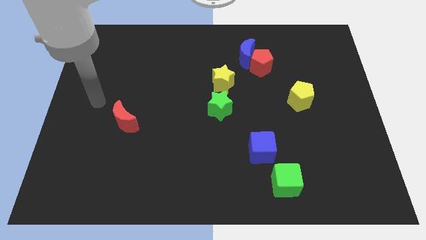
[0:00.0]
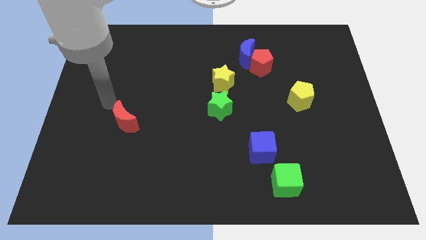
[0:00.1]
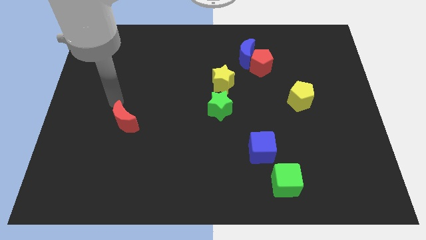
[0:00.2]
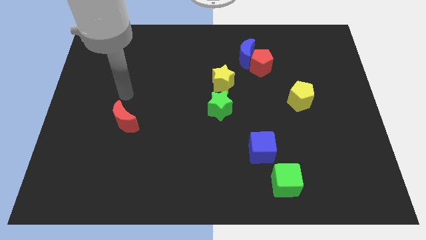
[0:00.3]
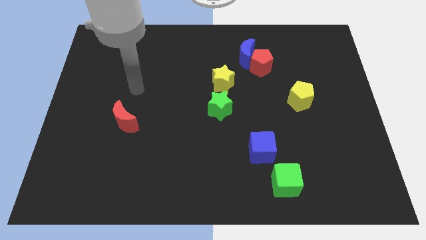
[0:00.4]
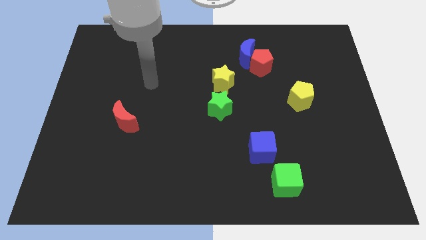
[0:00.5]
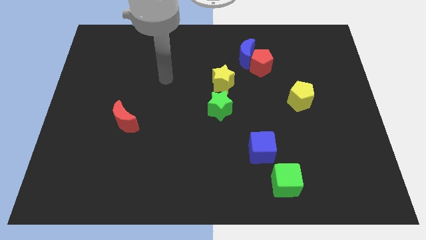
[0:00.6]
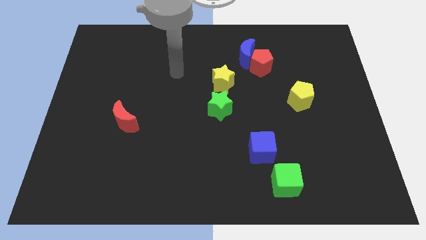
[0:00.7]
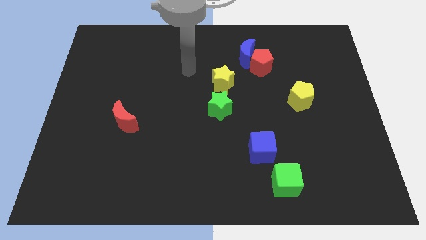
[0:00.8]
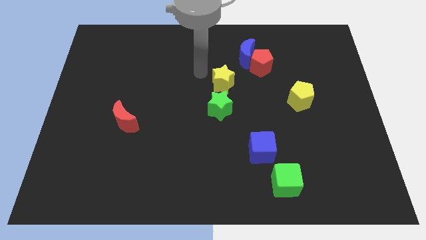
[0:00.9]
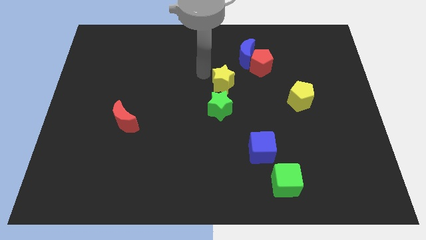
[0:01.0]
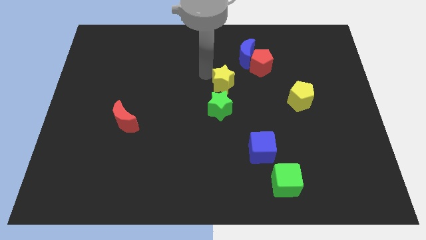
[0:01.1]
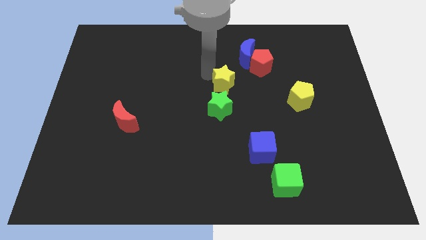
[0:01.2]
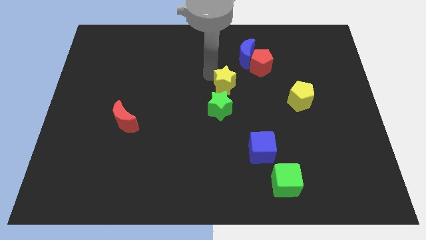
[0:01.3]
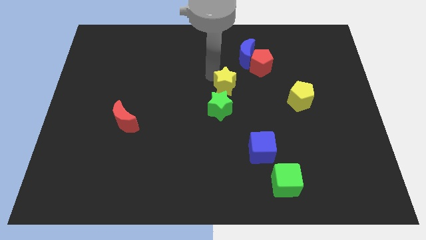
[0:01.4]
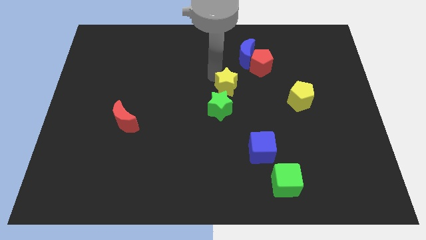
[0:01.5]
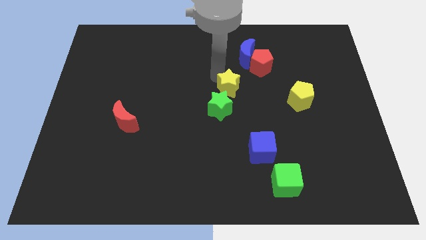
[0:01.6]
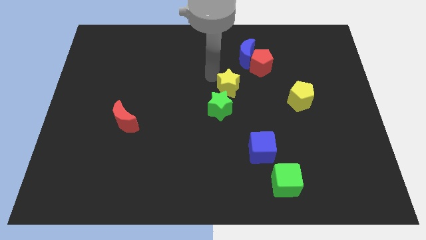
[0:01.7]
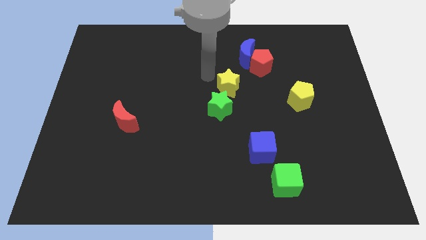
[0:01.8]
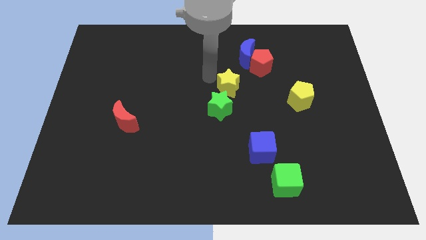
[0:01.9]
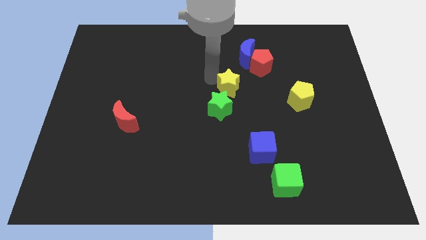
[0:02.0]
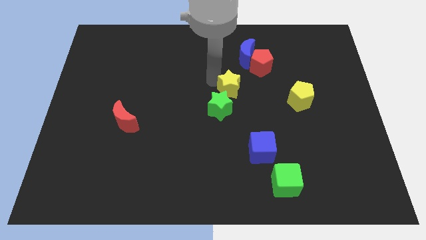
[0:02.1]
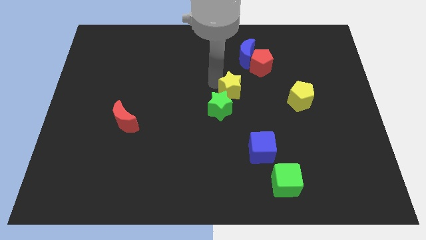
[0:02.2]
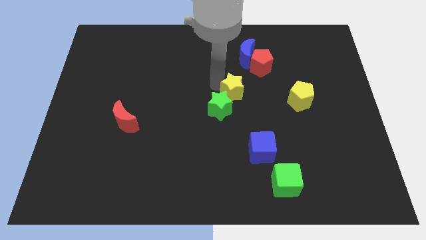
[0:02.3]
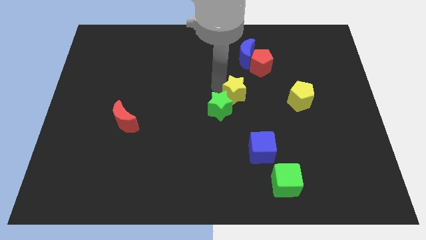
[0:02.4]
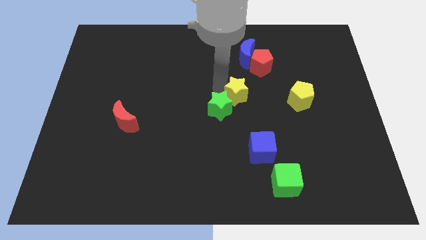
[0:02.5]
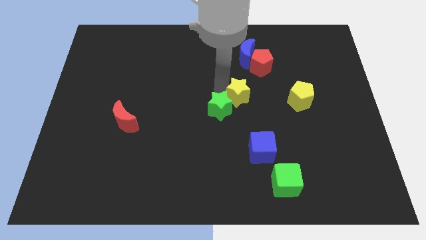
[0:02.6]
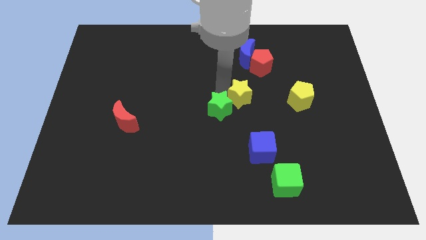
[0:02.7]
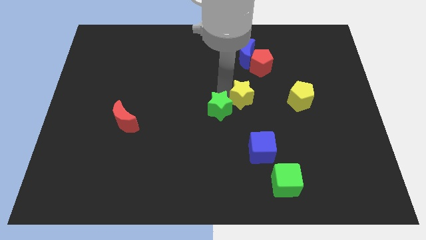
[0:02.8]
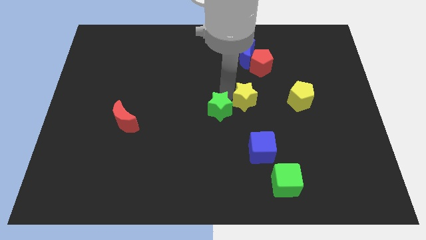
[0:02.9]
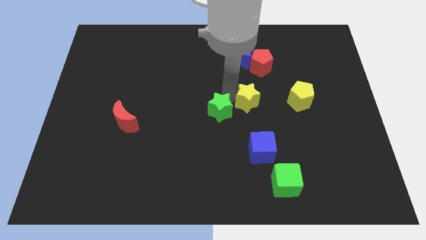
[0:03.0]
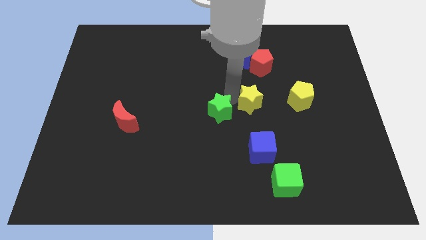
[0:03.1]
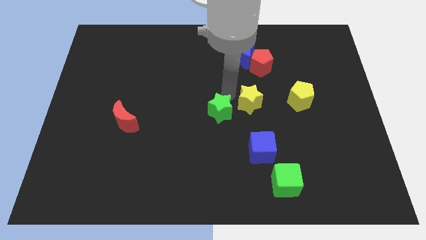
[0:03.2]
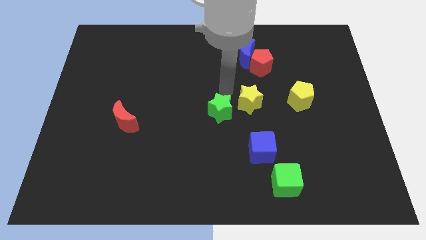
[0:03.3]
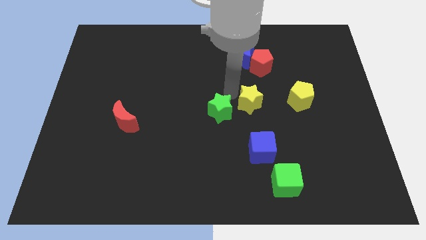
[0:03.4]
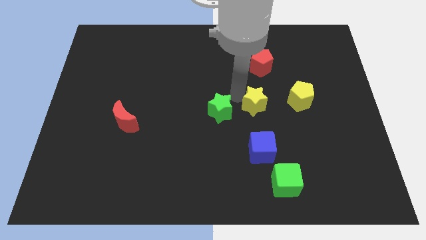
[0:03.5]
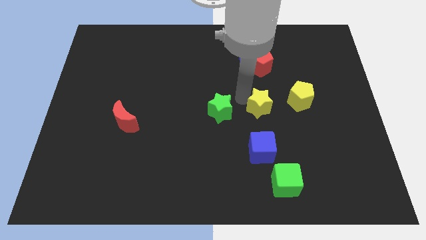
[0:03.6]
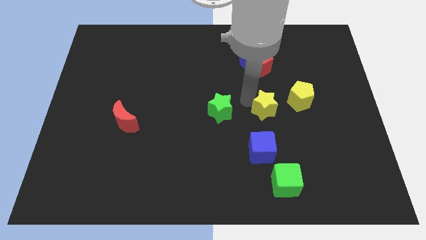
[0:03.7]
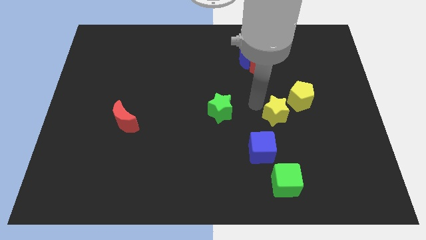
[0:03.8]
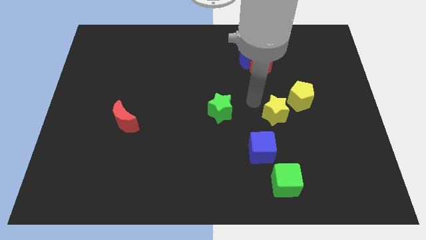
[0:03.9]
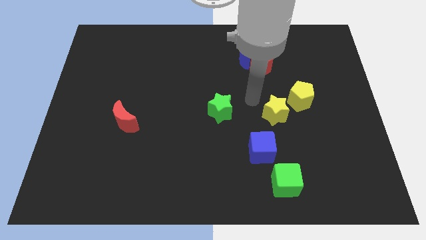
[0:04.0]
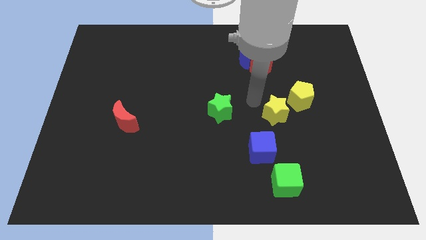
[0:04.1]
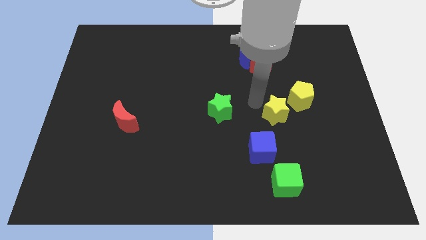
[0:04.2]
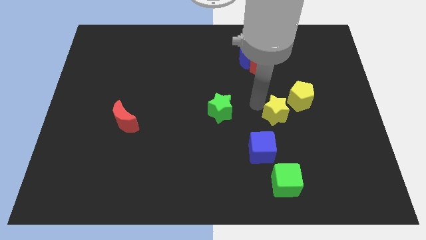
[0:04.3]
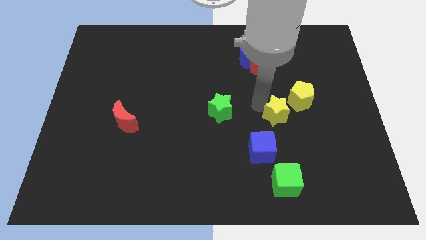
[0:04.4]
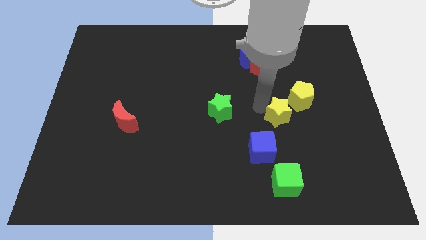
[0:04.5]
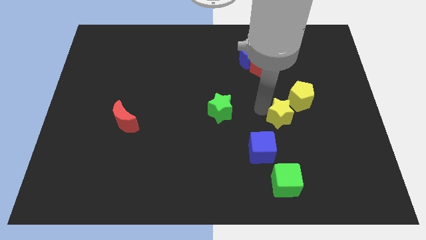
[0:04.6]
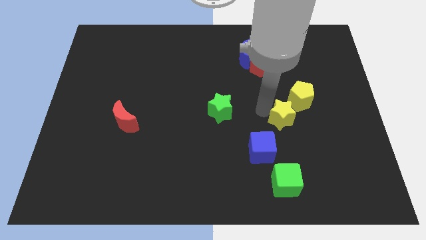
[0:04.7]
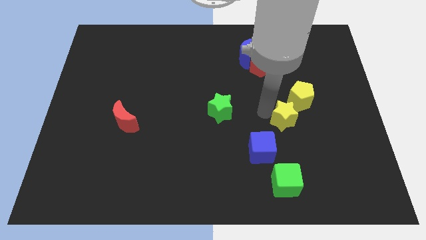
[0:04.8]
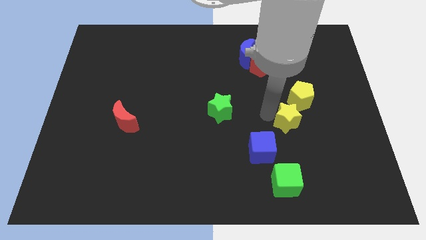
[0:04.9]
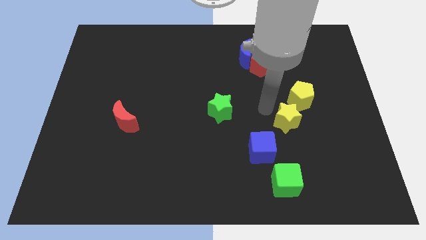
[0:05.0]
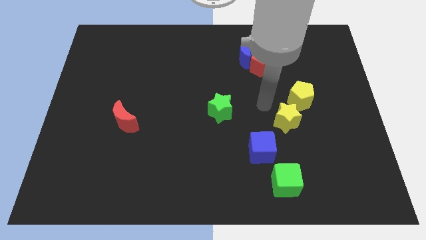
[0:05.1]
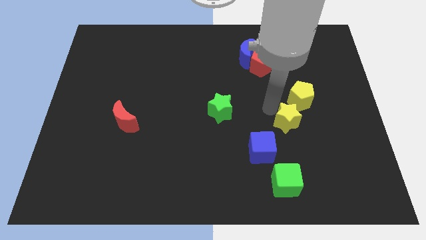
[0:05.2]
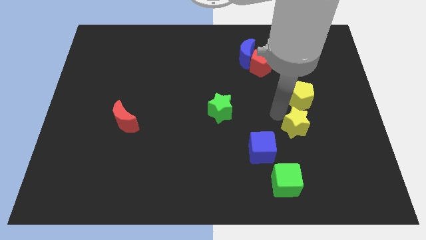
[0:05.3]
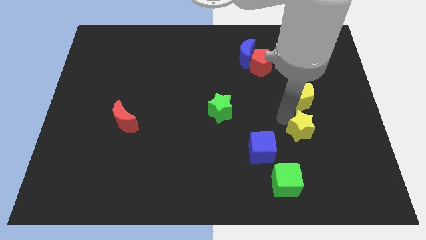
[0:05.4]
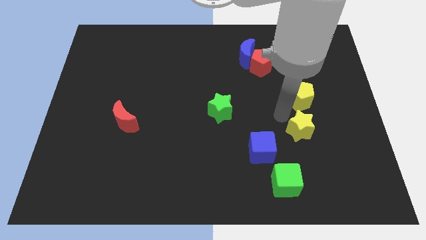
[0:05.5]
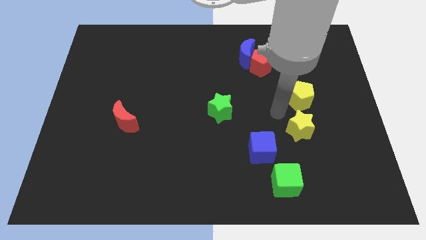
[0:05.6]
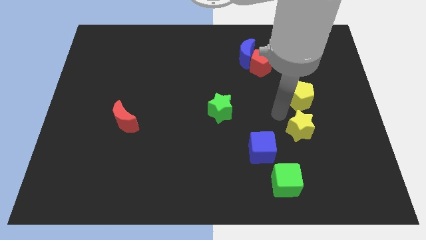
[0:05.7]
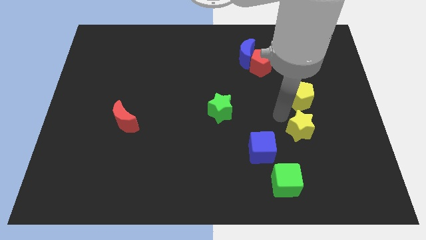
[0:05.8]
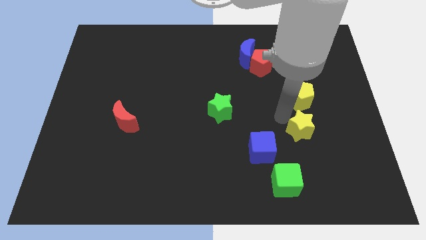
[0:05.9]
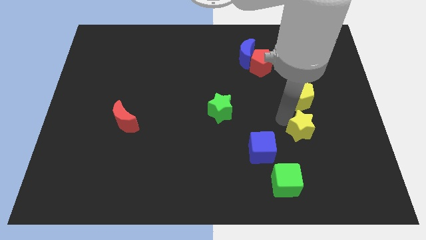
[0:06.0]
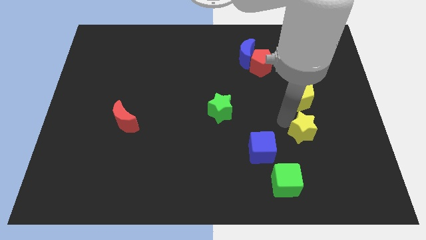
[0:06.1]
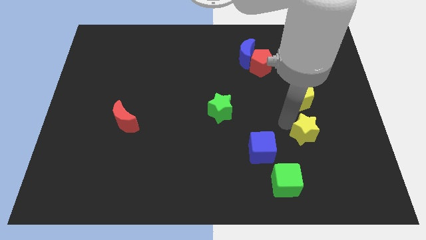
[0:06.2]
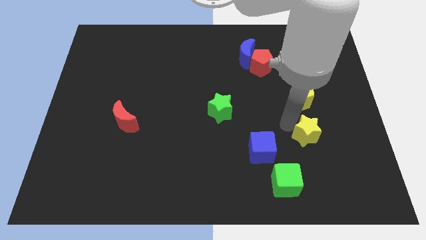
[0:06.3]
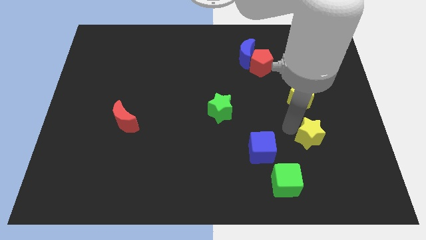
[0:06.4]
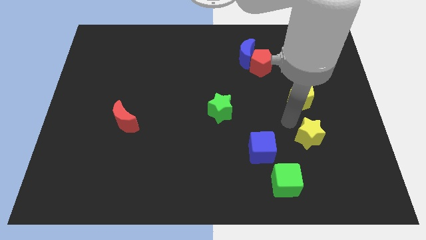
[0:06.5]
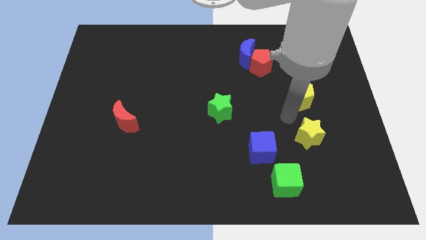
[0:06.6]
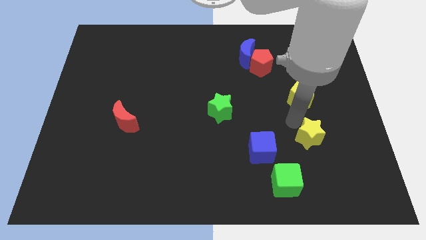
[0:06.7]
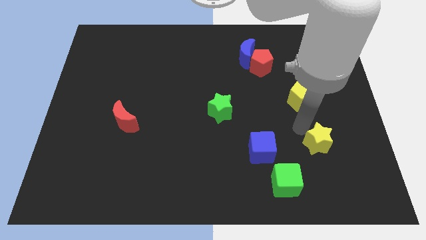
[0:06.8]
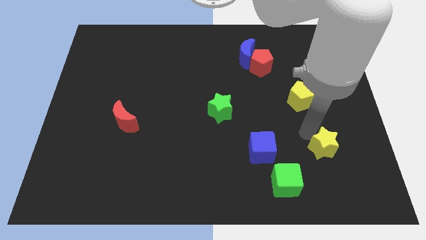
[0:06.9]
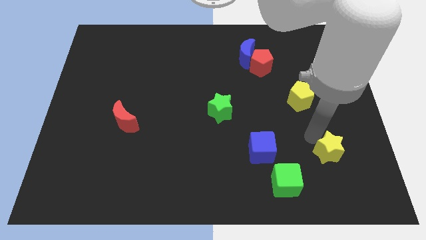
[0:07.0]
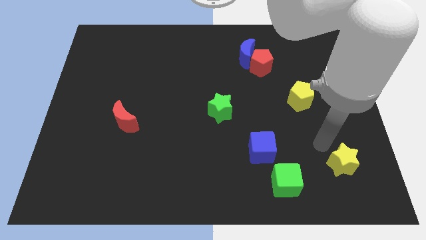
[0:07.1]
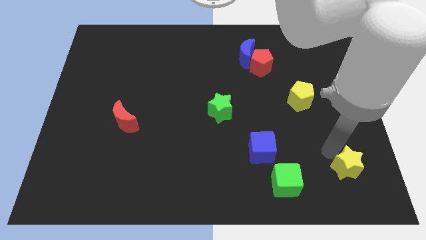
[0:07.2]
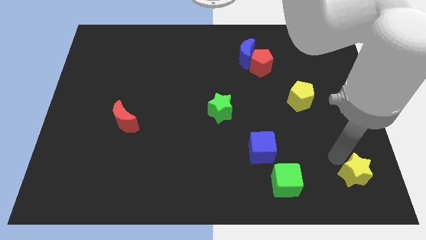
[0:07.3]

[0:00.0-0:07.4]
push the yellow star to the bottom right
